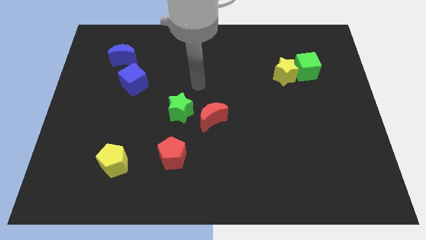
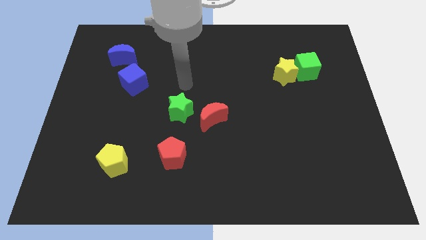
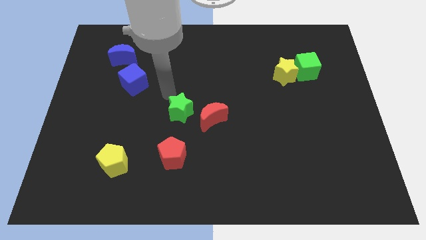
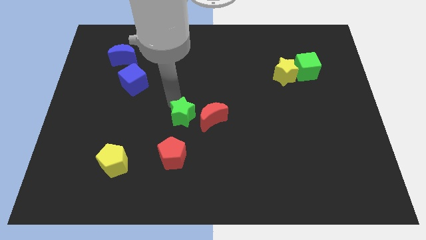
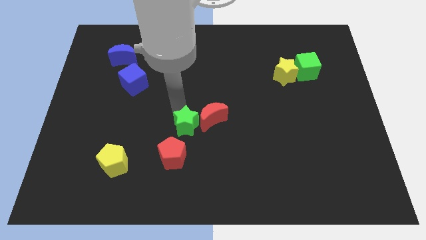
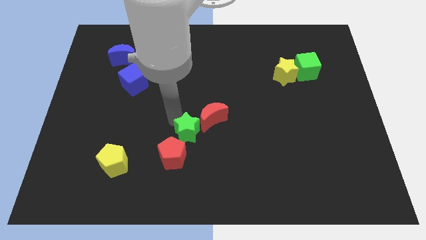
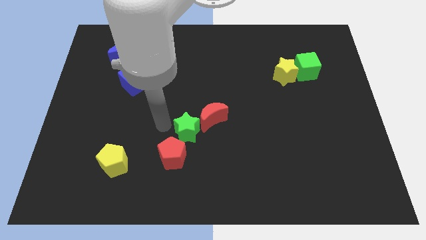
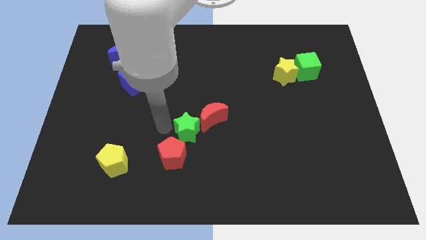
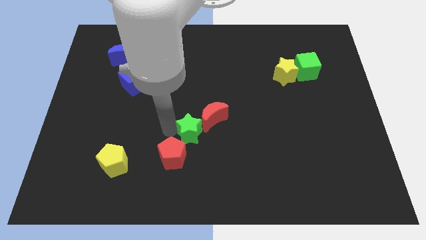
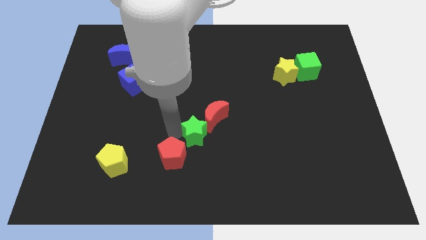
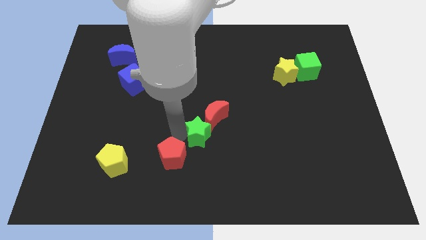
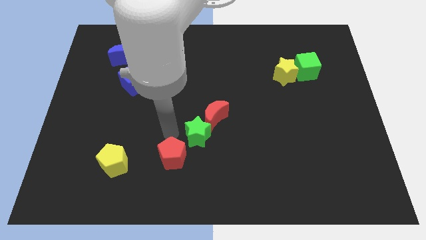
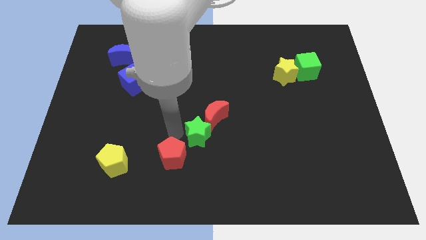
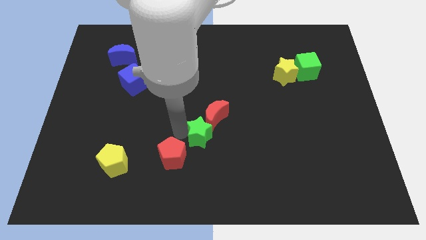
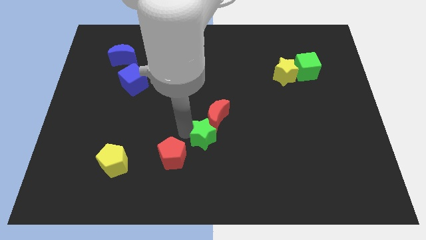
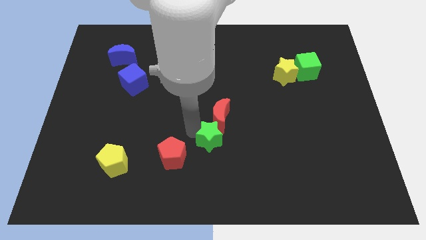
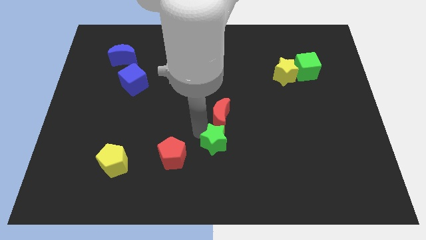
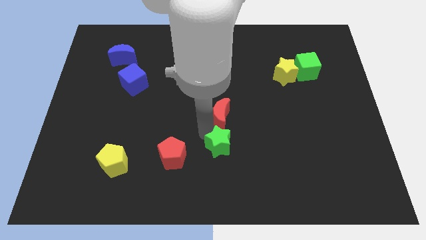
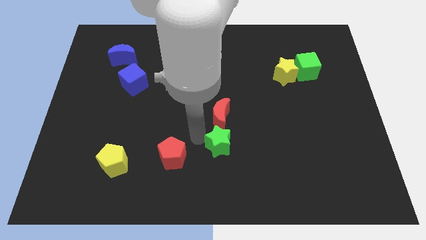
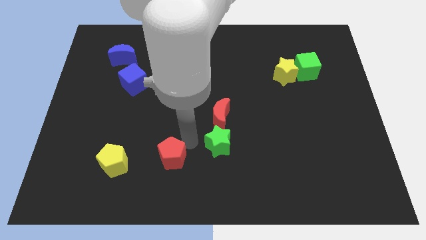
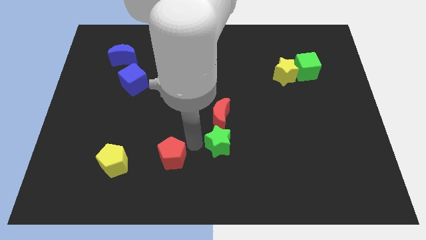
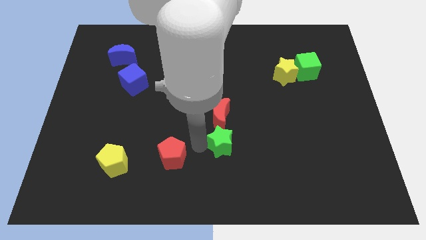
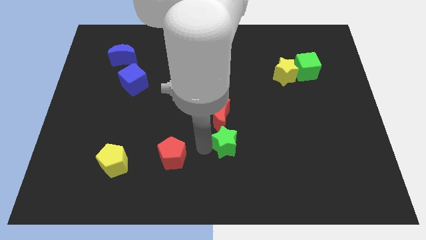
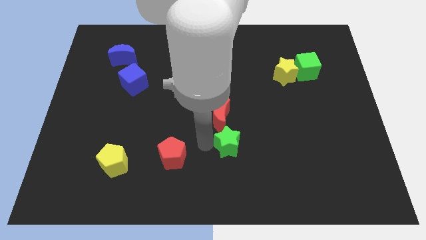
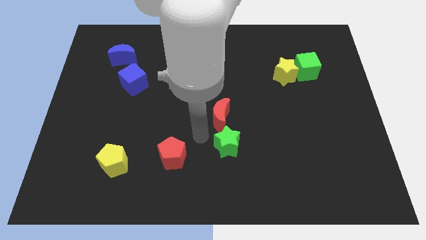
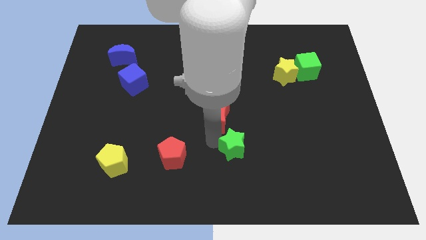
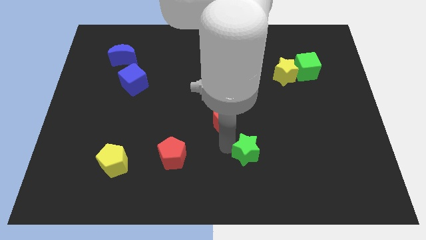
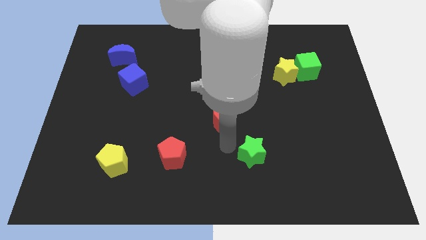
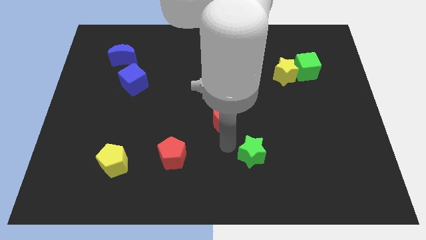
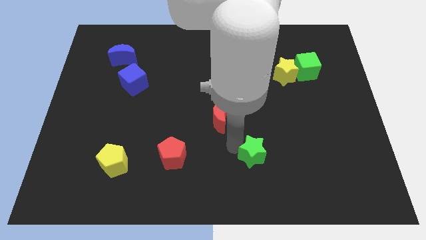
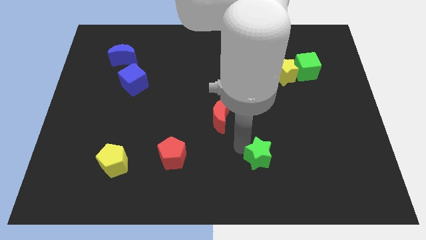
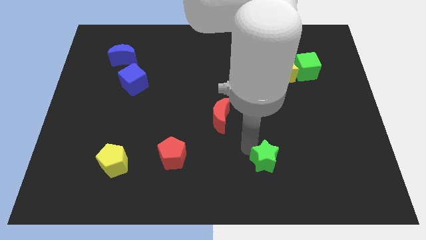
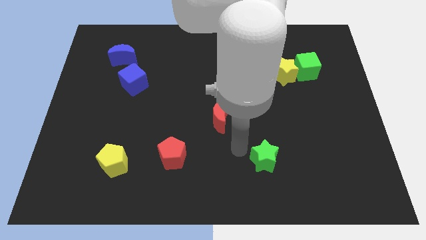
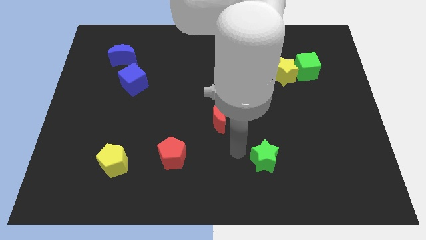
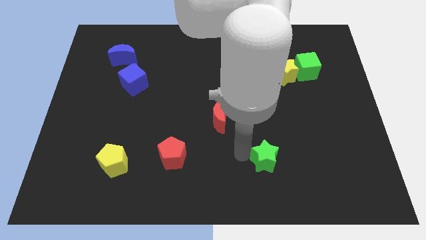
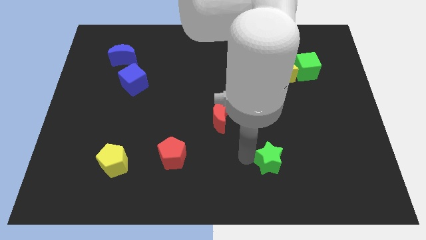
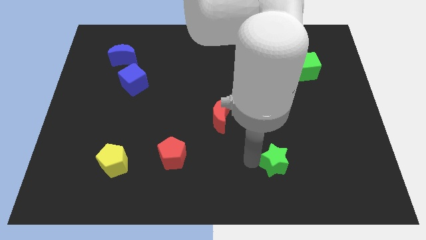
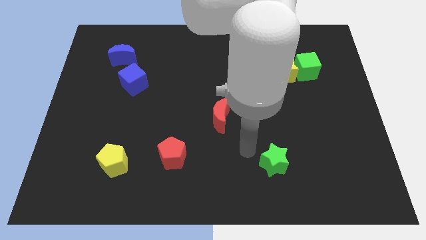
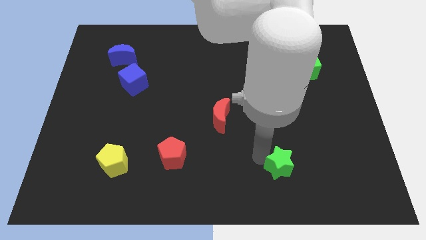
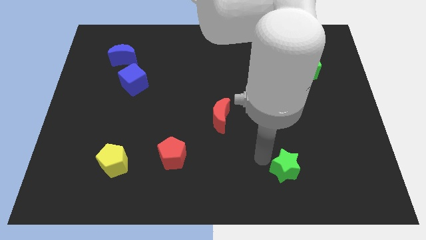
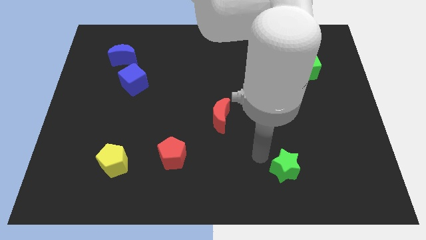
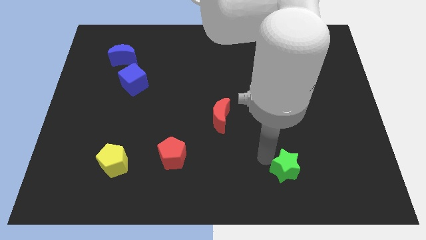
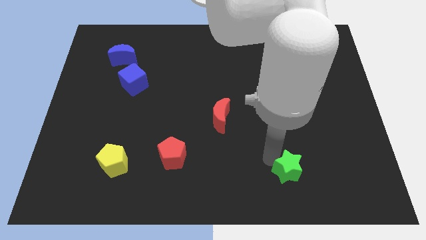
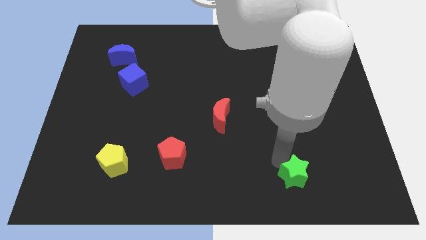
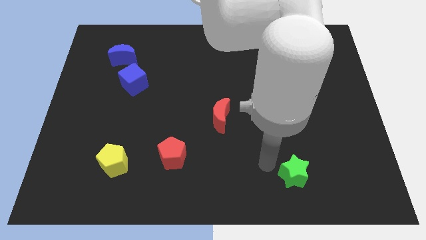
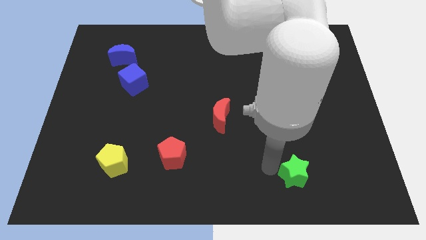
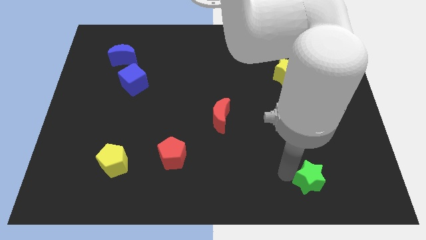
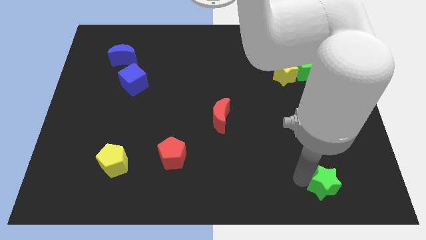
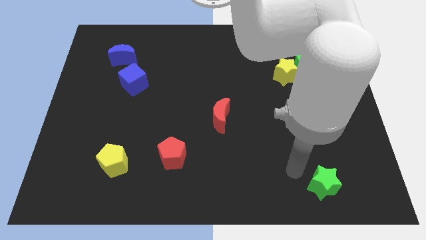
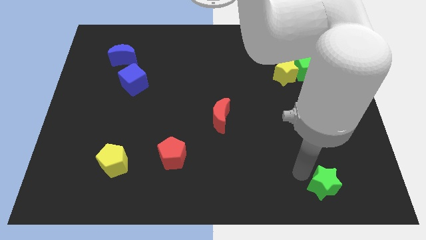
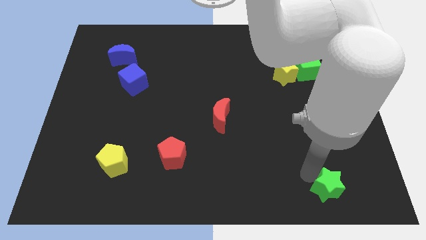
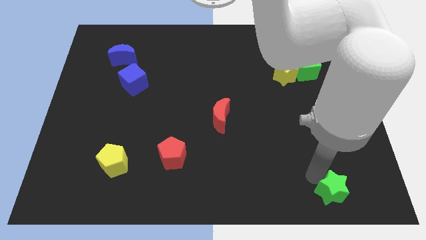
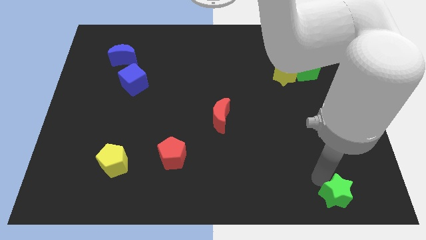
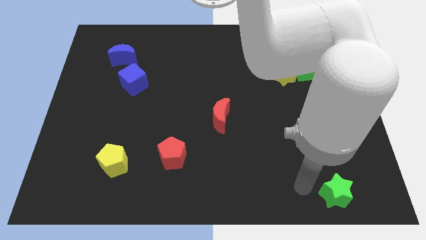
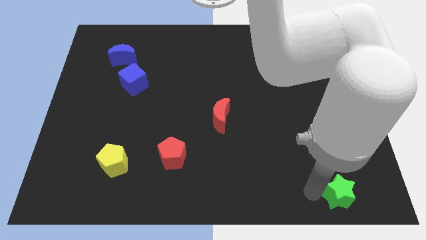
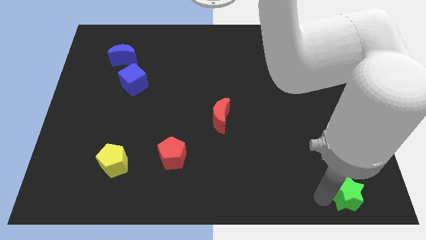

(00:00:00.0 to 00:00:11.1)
put the green star to the bottom right corner
